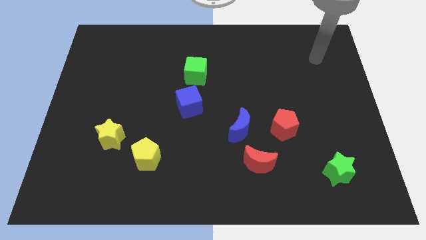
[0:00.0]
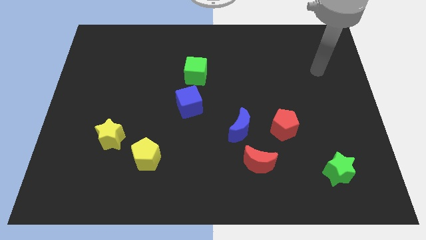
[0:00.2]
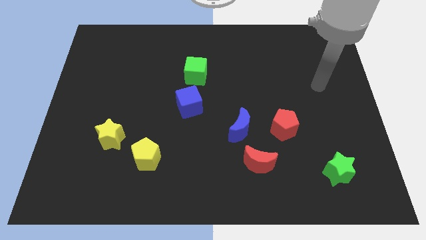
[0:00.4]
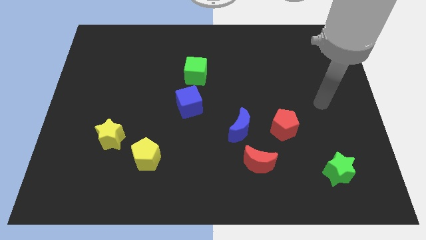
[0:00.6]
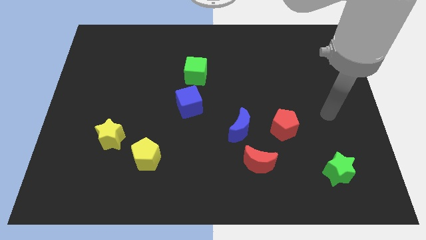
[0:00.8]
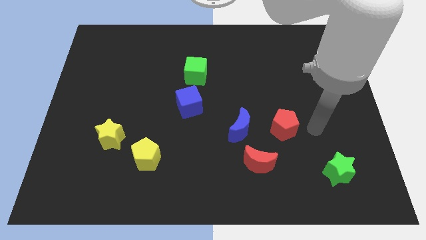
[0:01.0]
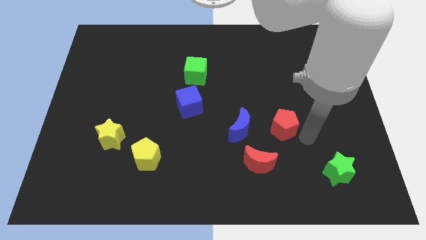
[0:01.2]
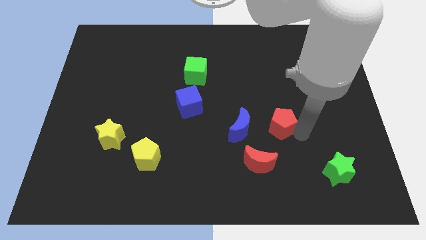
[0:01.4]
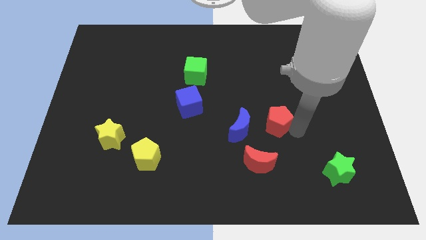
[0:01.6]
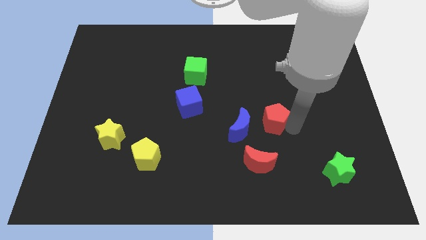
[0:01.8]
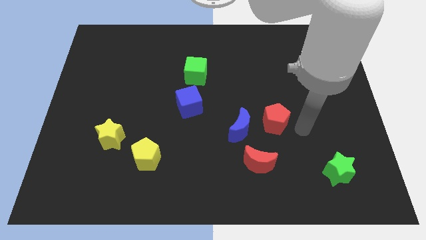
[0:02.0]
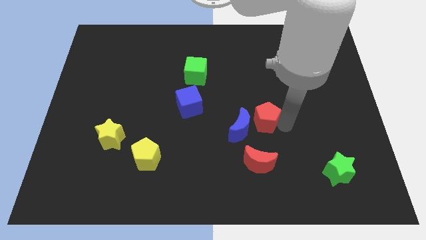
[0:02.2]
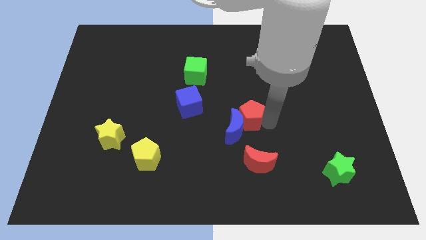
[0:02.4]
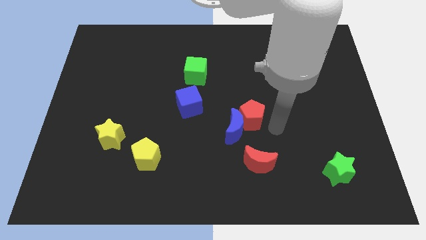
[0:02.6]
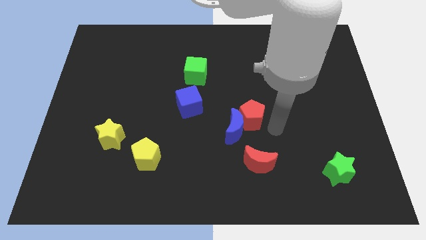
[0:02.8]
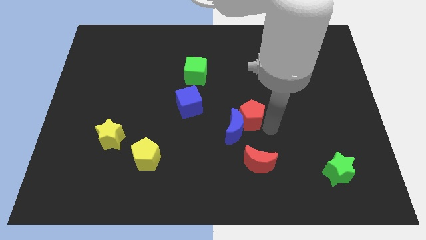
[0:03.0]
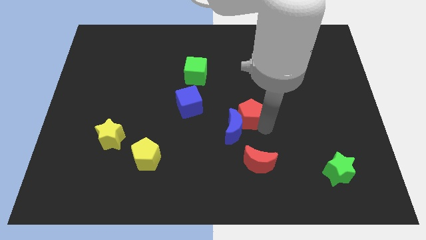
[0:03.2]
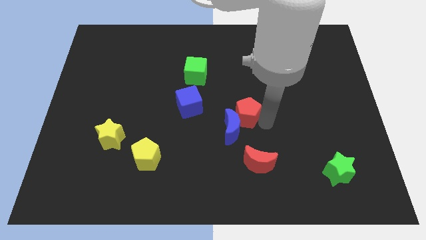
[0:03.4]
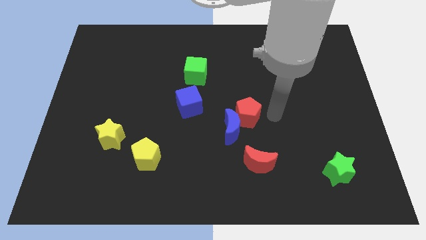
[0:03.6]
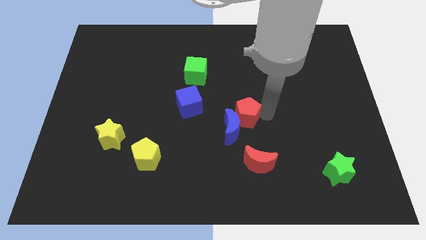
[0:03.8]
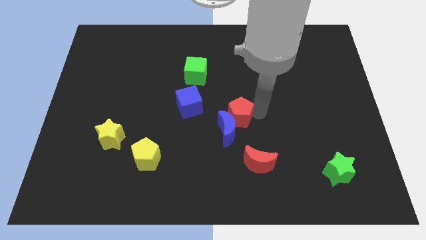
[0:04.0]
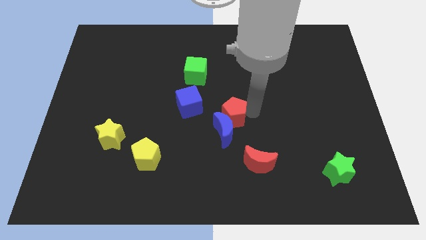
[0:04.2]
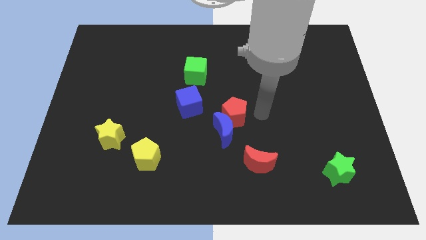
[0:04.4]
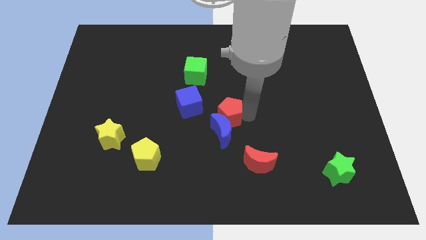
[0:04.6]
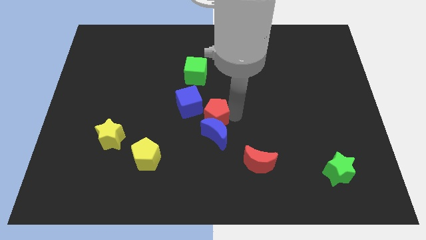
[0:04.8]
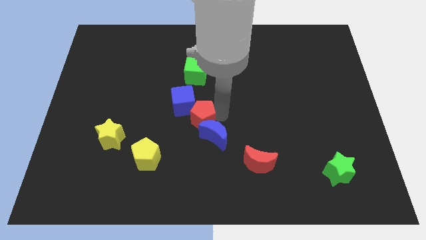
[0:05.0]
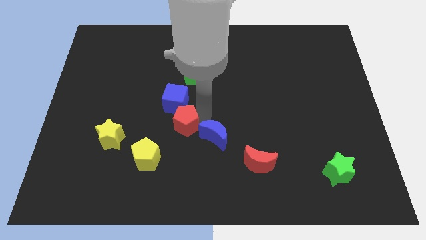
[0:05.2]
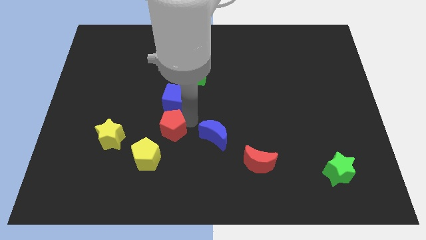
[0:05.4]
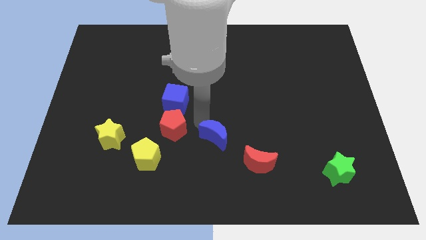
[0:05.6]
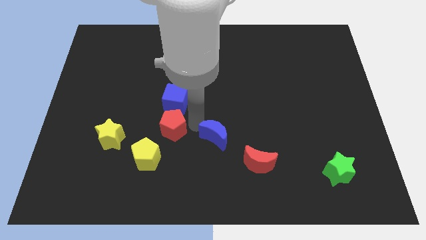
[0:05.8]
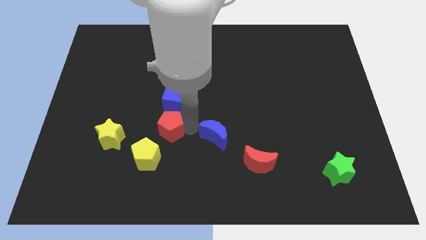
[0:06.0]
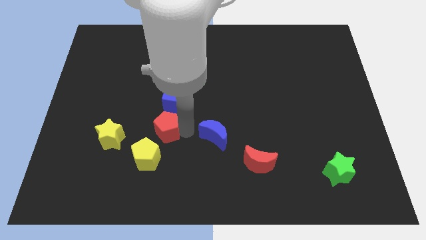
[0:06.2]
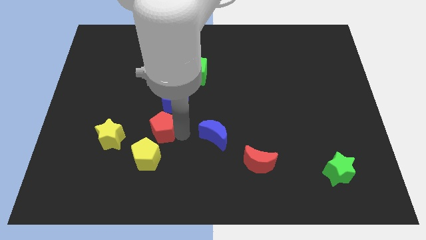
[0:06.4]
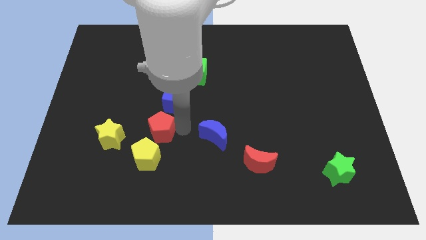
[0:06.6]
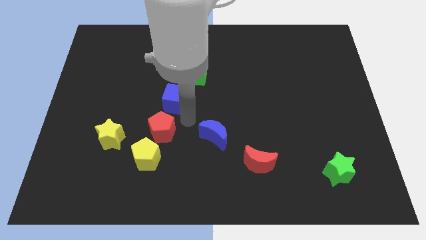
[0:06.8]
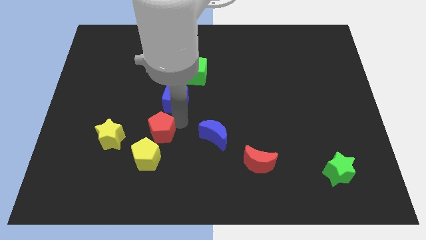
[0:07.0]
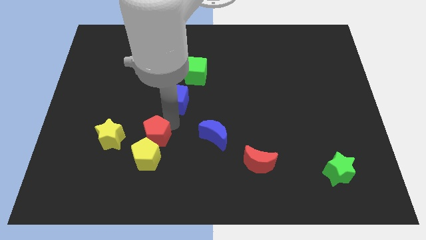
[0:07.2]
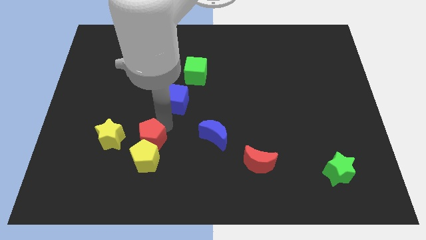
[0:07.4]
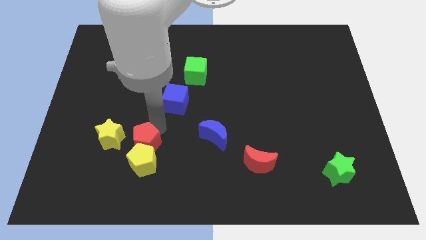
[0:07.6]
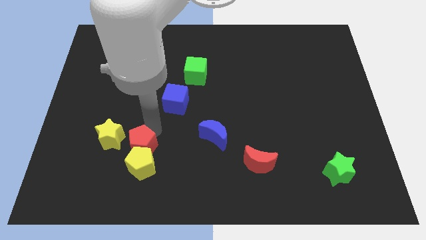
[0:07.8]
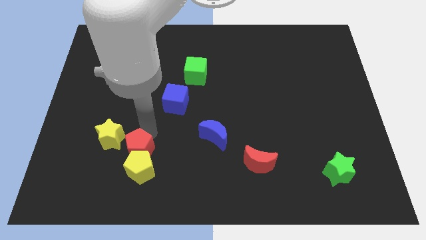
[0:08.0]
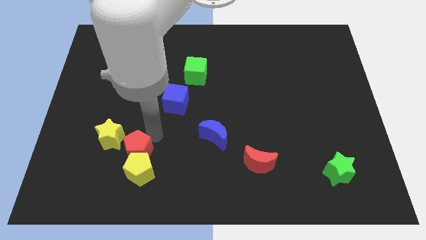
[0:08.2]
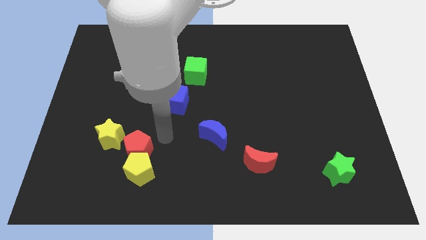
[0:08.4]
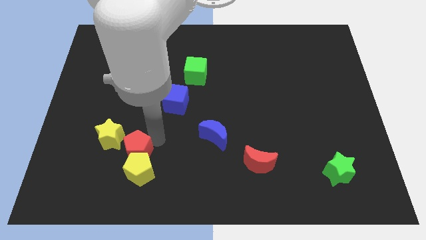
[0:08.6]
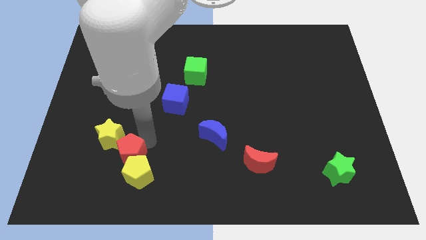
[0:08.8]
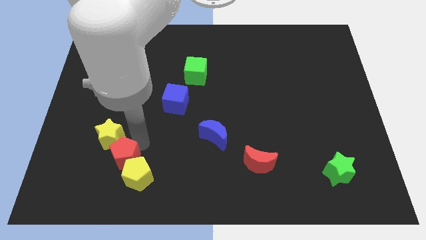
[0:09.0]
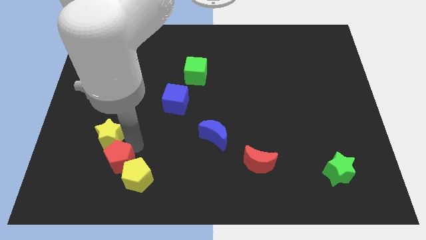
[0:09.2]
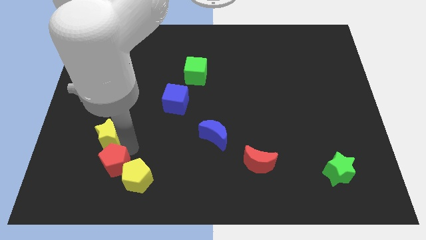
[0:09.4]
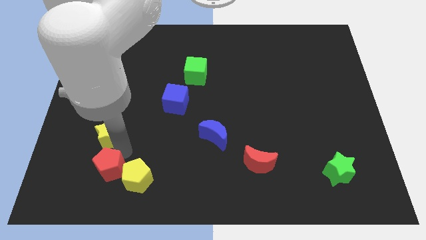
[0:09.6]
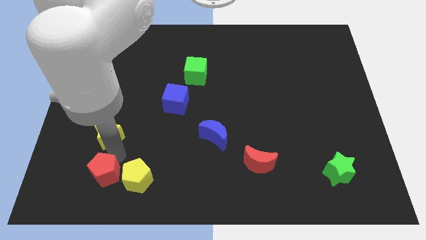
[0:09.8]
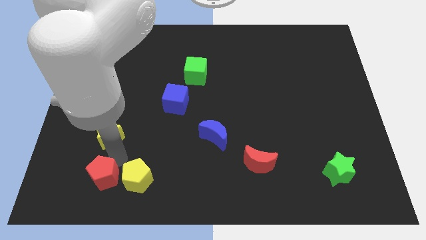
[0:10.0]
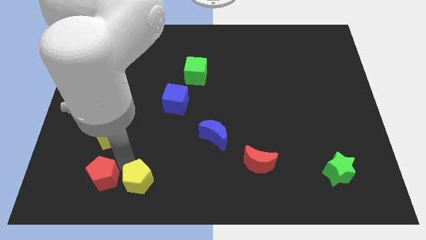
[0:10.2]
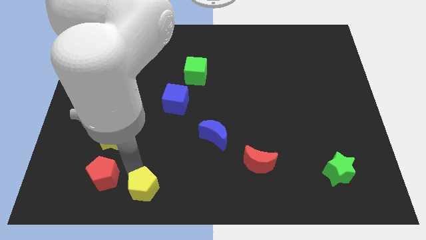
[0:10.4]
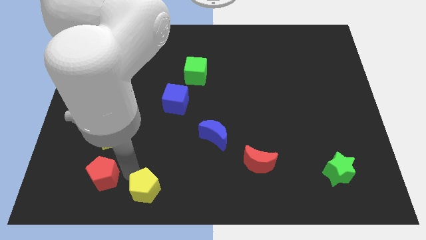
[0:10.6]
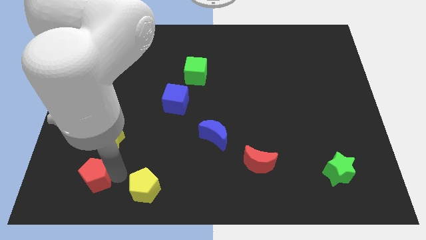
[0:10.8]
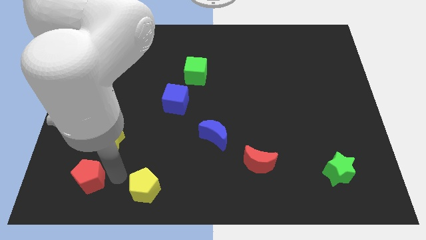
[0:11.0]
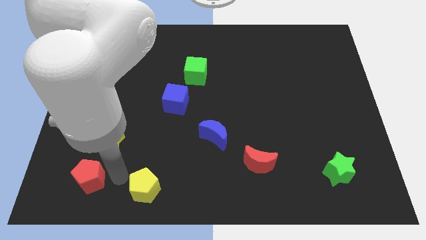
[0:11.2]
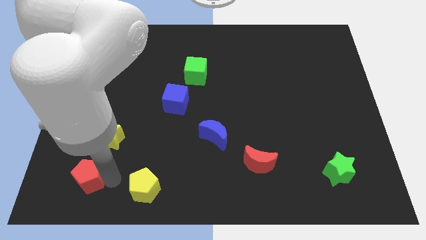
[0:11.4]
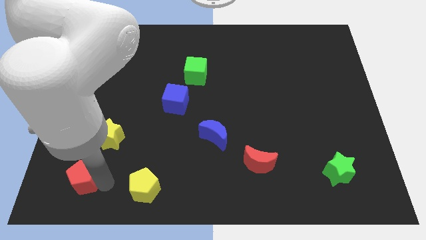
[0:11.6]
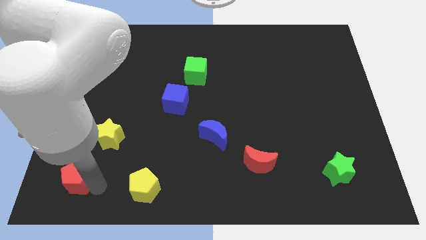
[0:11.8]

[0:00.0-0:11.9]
move the red pentagon to the bottom left of the board
